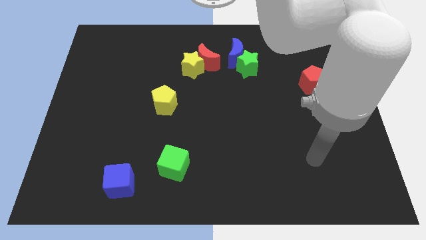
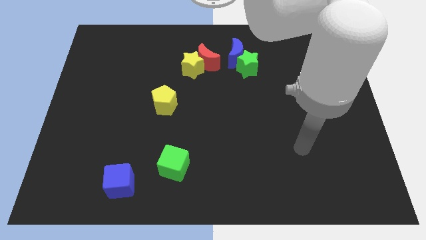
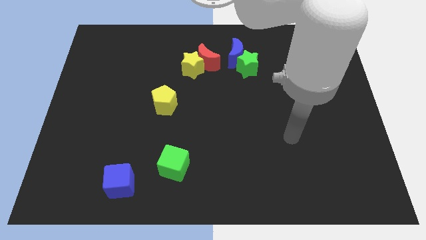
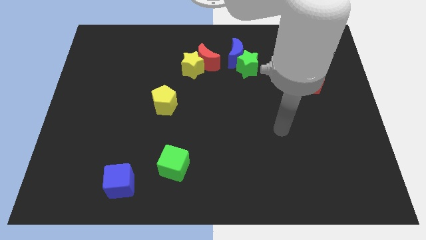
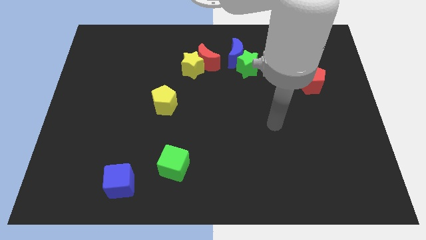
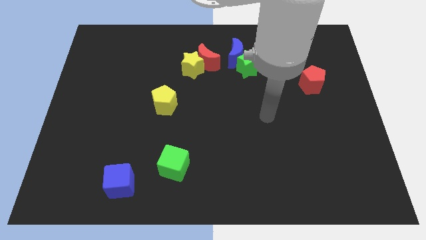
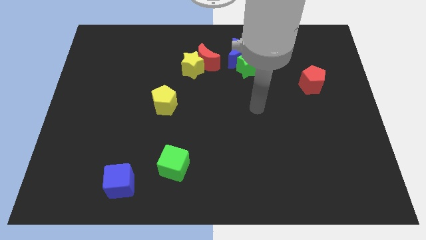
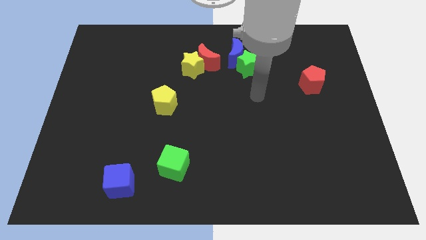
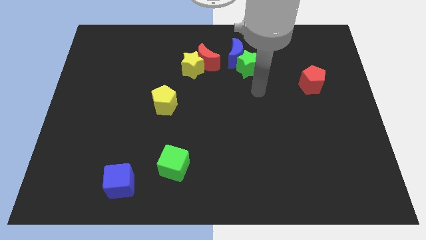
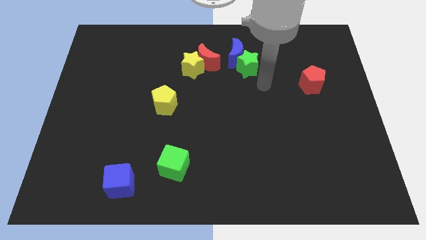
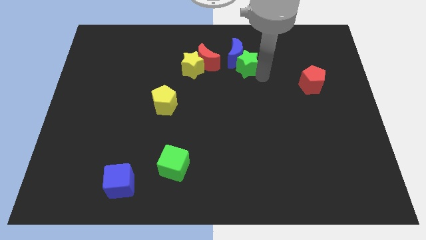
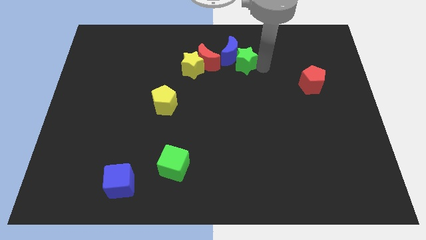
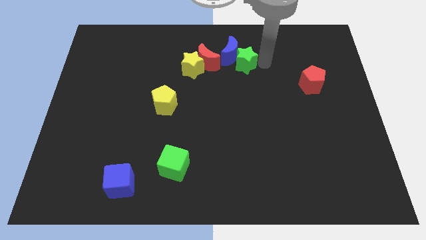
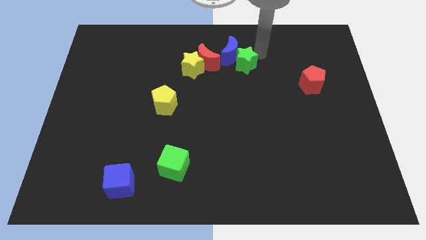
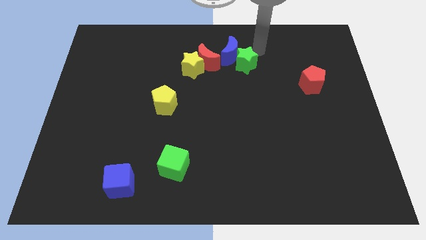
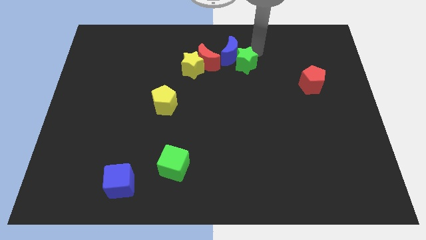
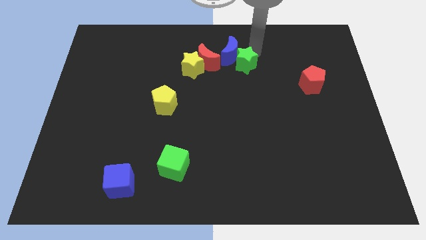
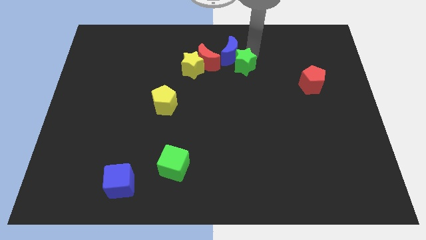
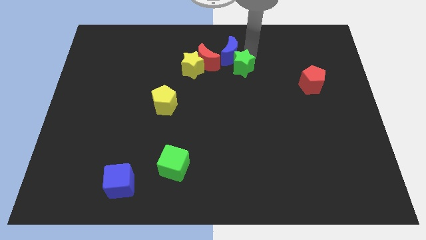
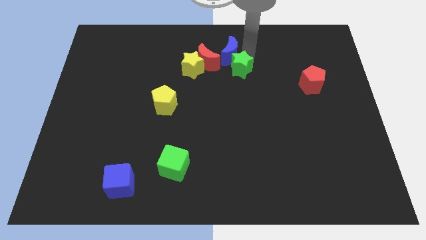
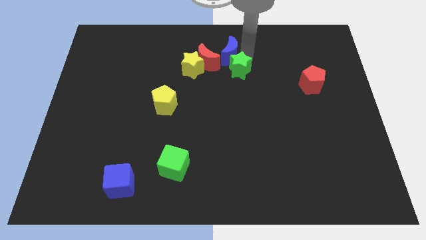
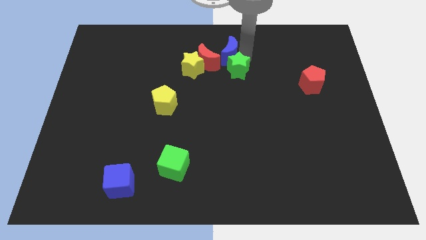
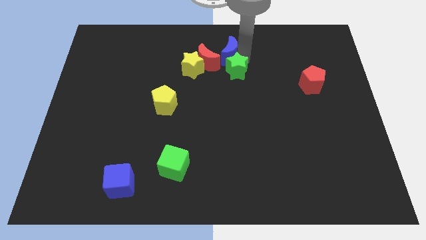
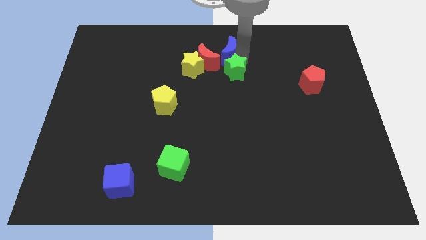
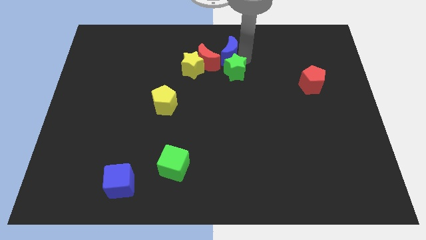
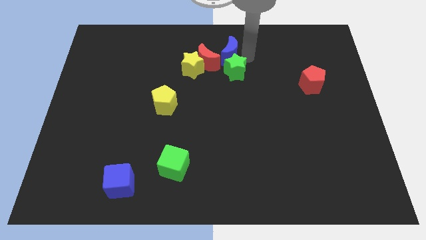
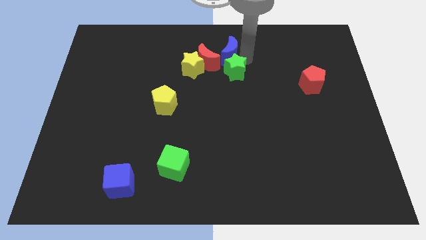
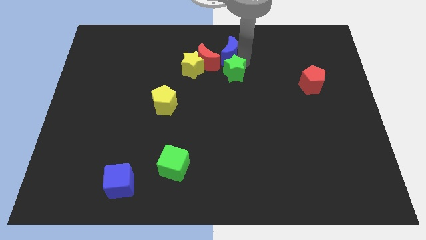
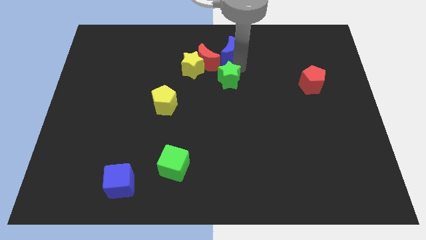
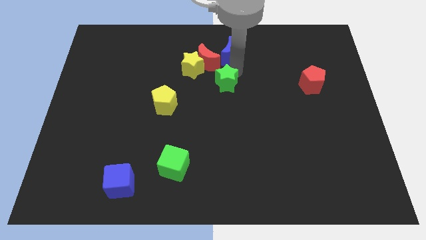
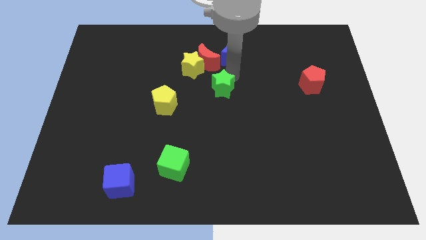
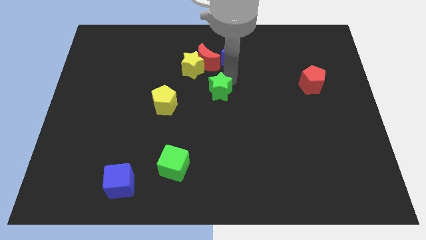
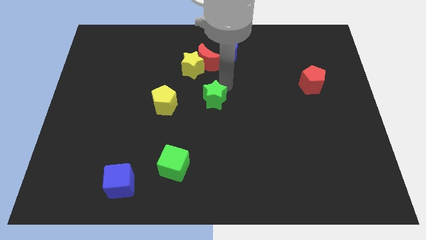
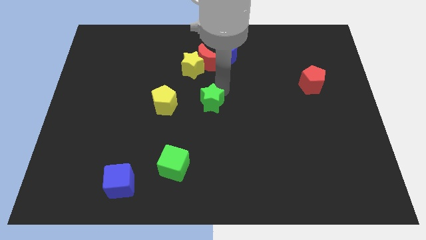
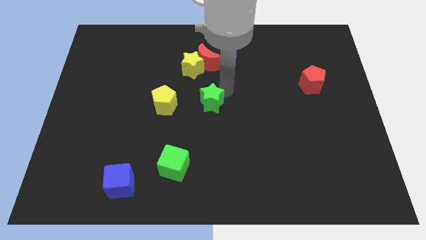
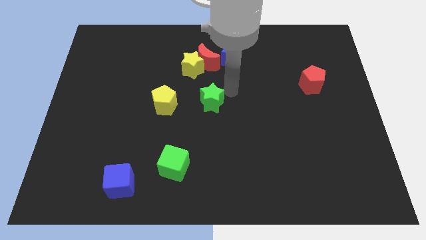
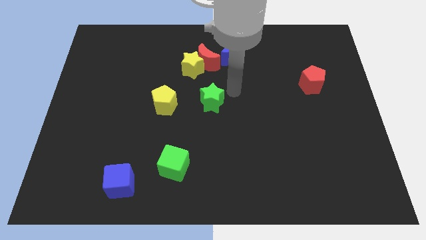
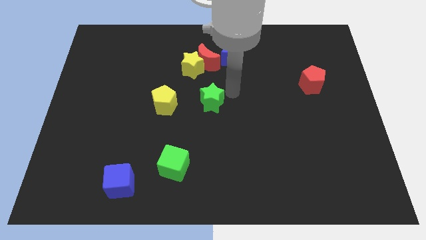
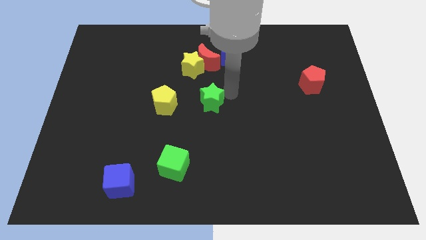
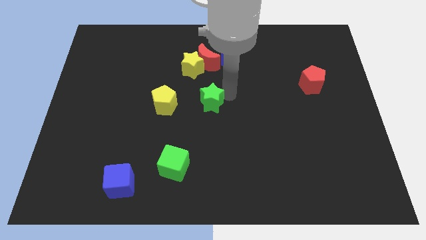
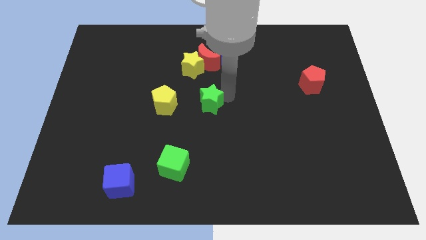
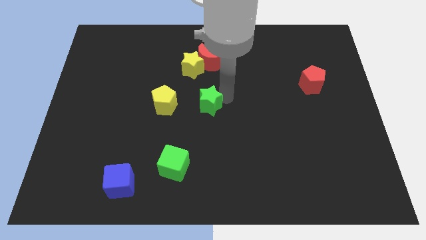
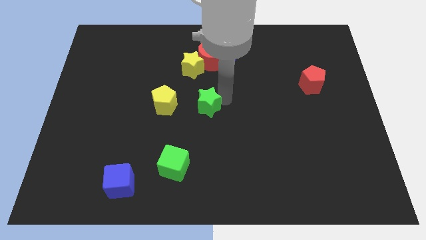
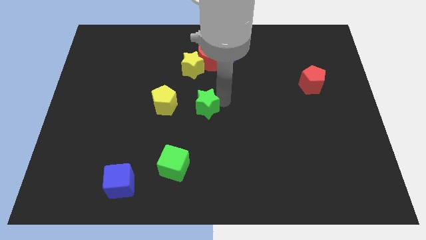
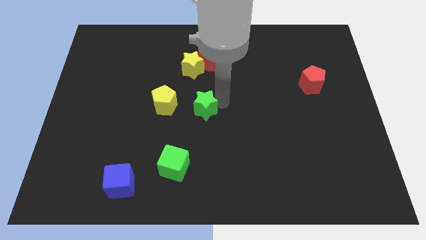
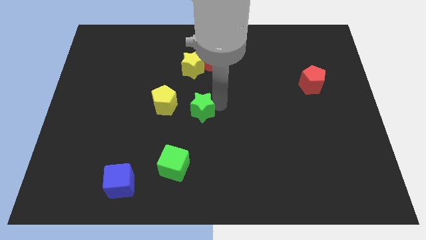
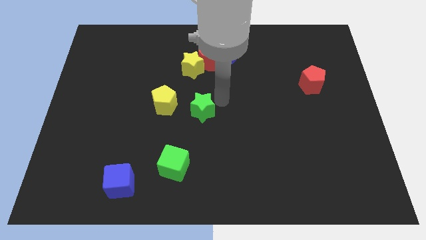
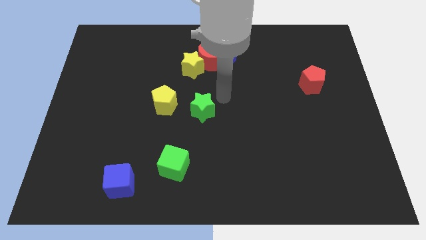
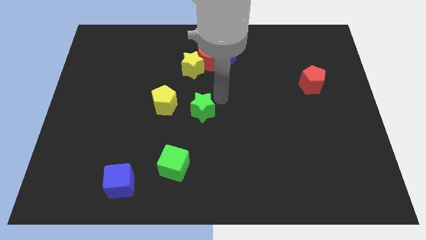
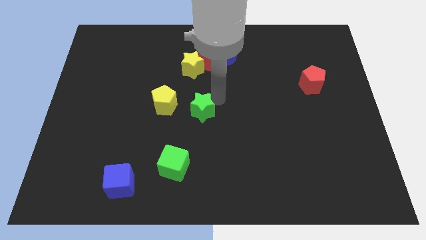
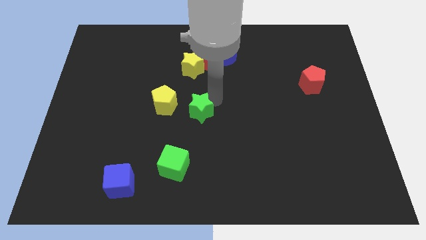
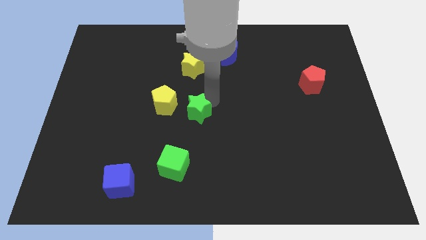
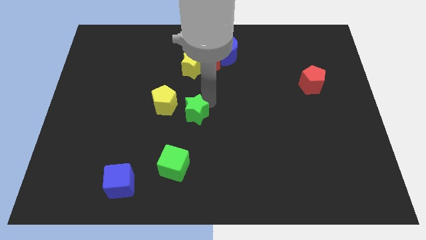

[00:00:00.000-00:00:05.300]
move the green star to the top side of the green cube
